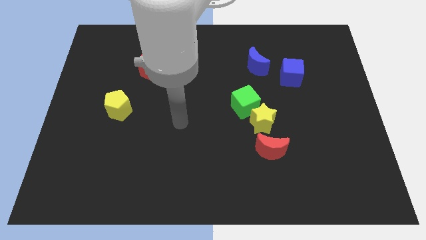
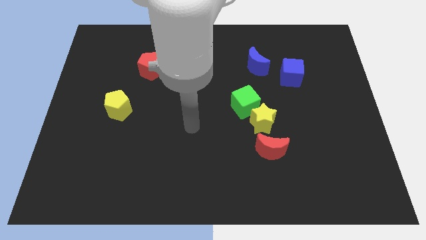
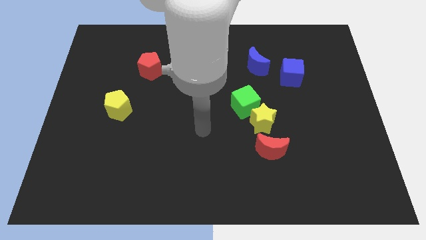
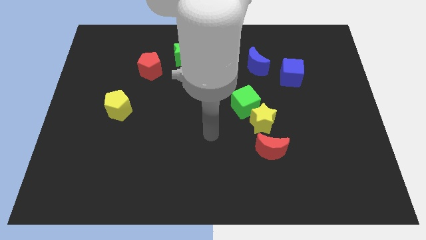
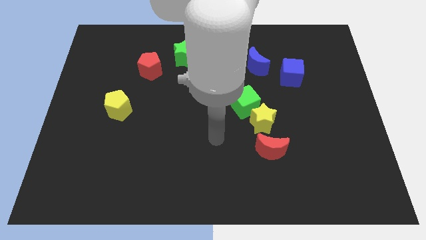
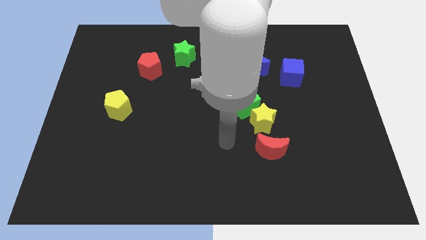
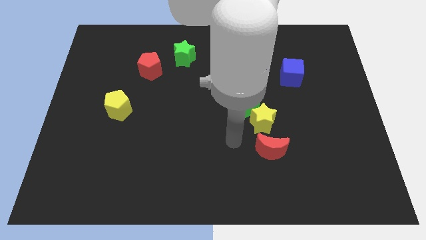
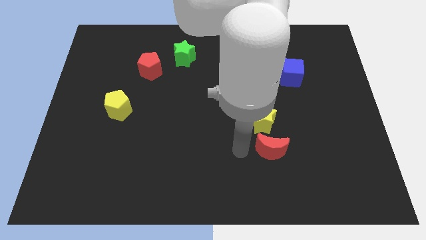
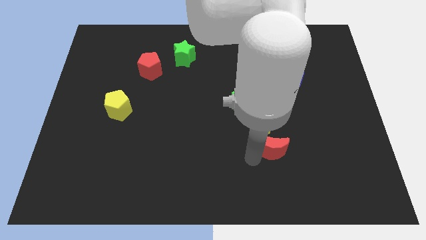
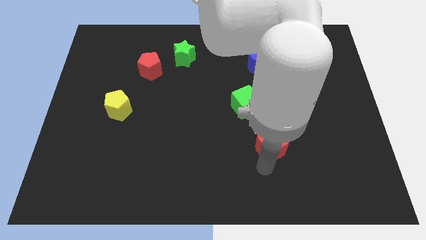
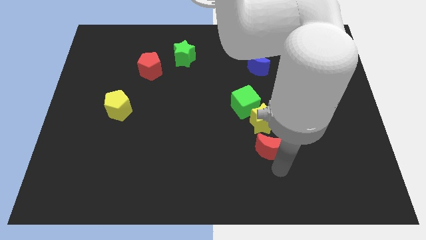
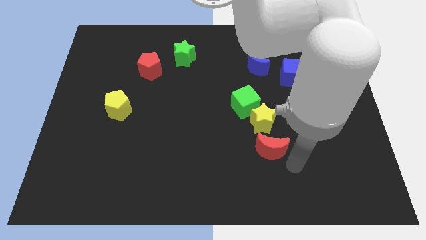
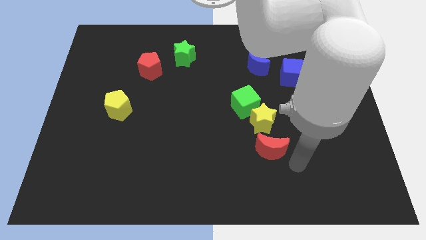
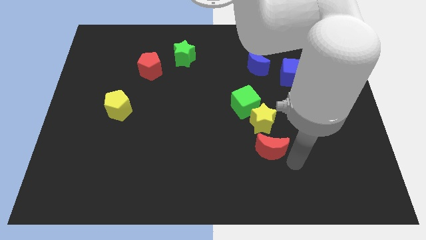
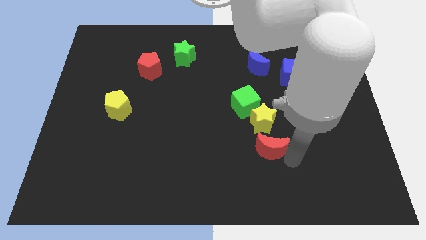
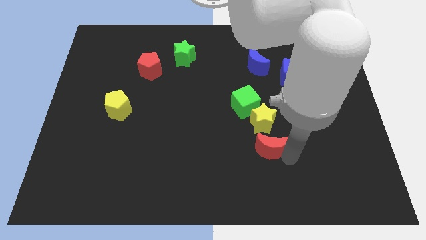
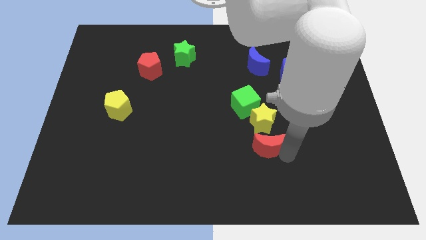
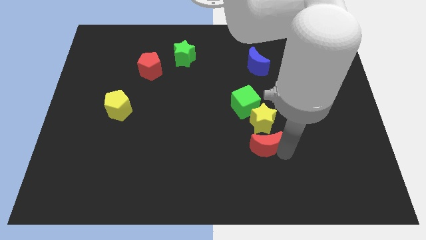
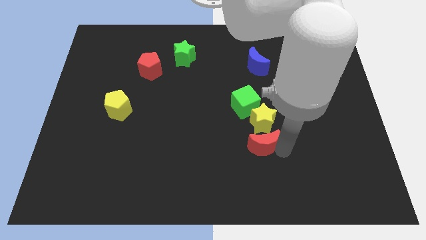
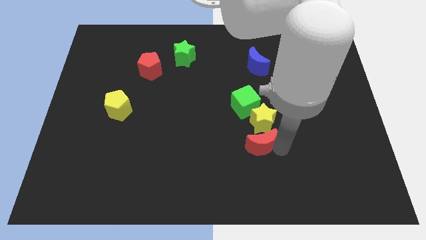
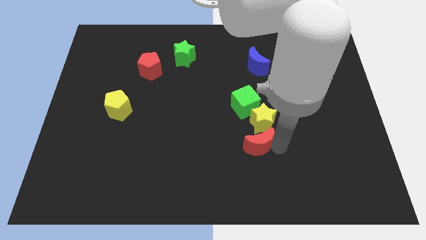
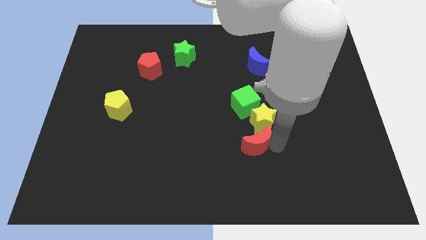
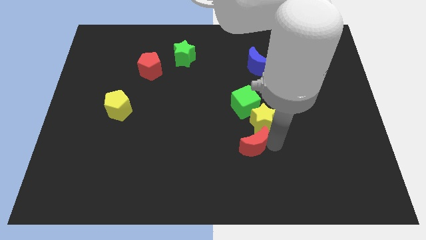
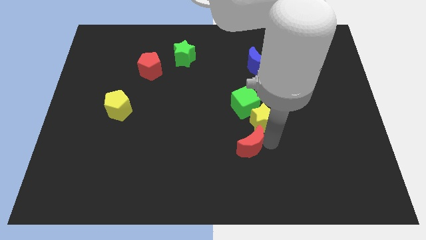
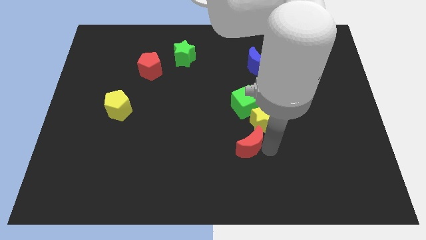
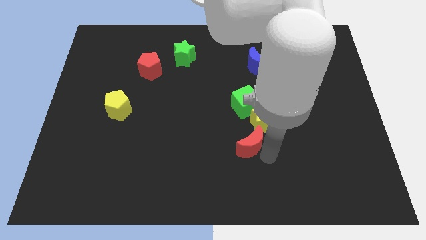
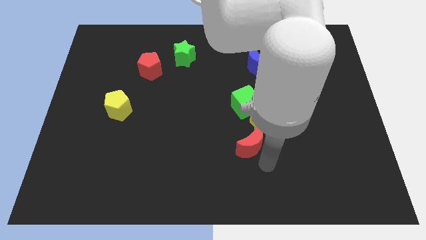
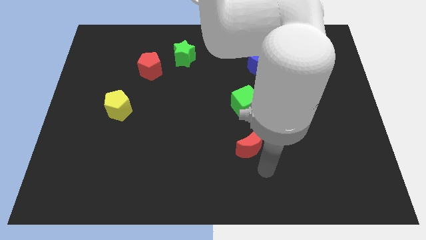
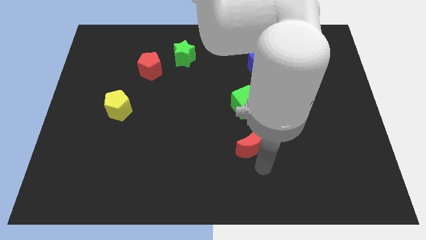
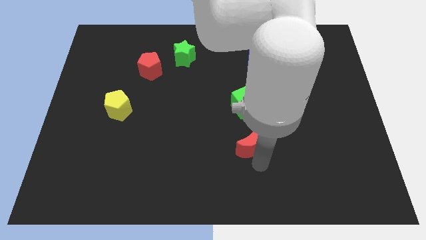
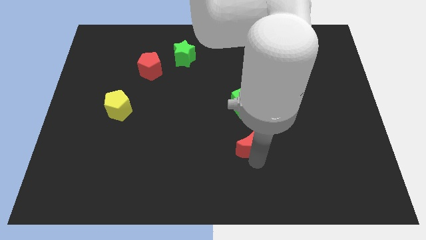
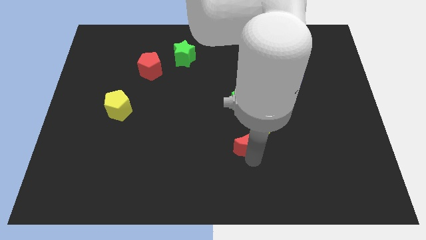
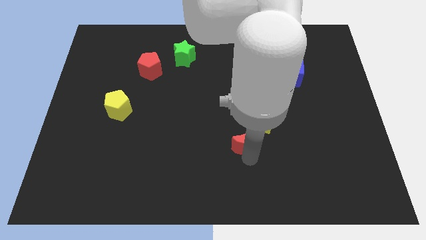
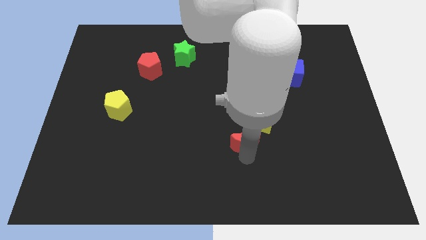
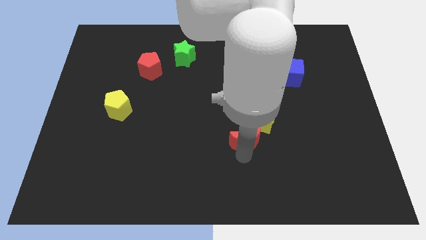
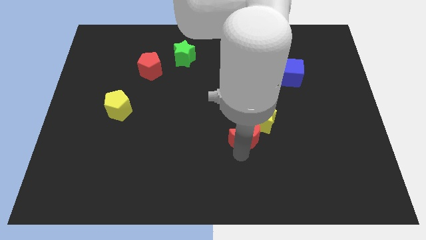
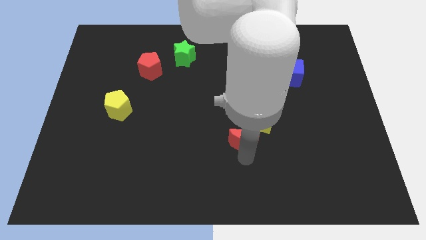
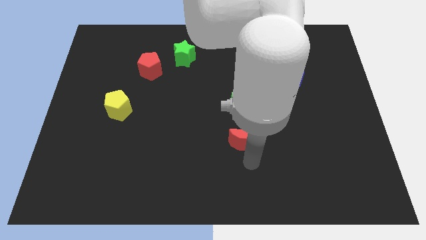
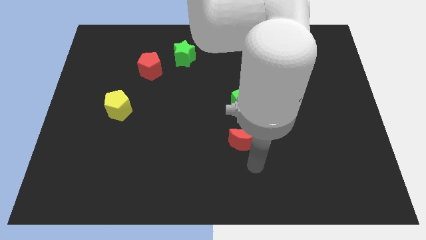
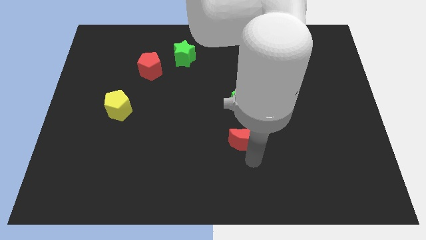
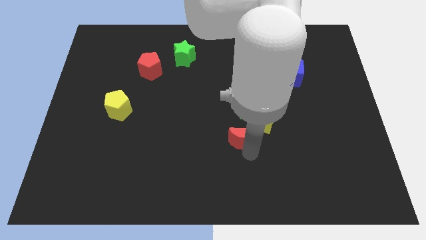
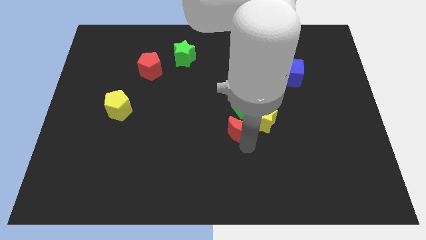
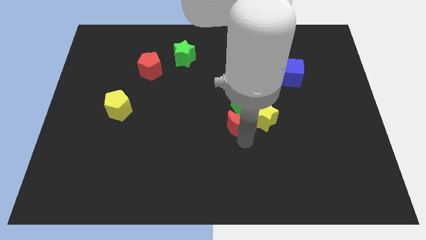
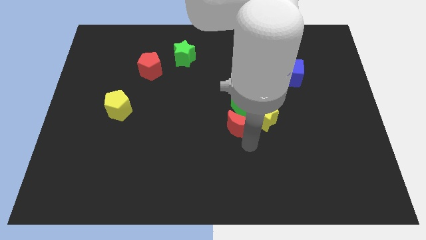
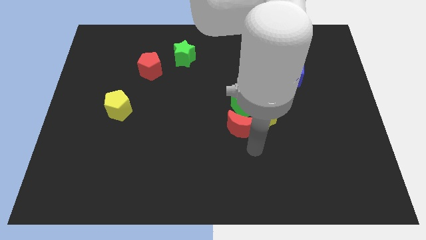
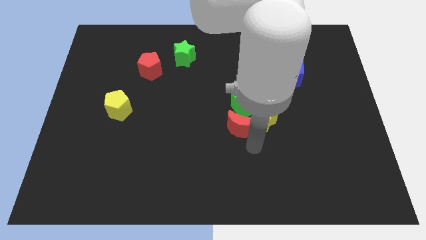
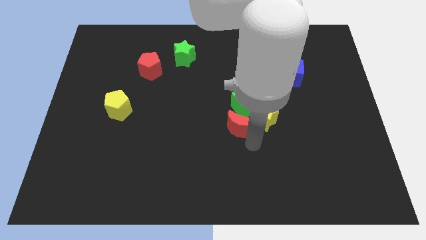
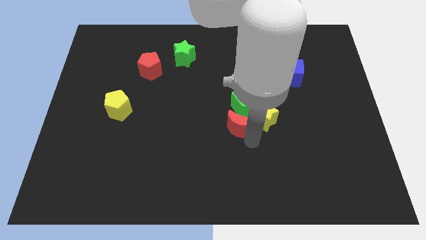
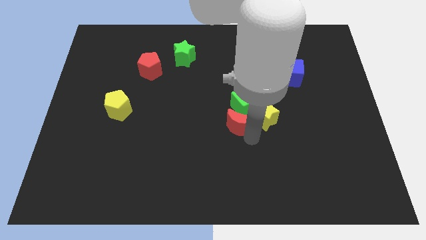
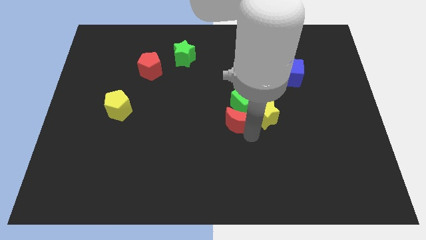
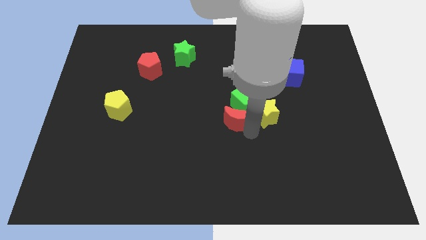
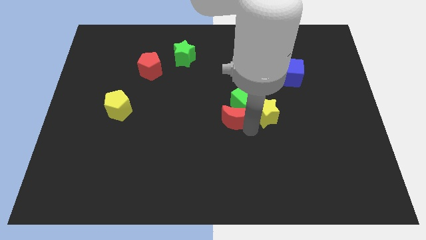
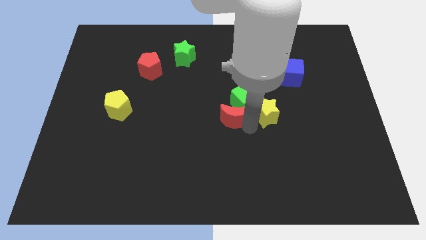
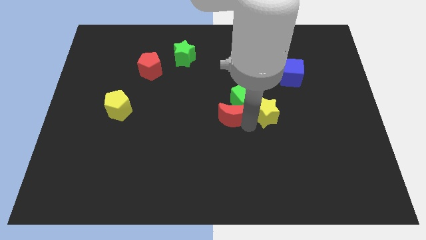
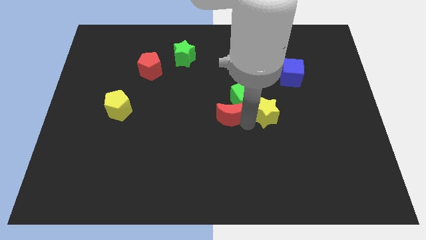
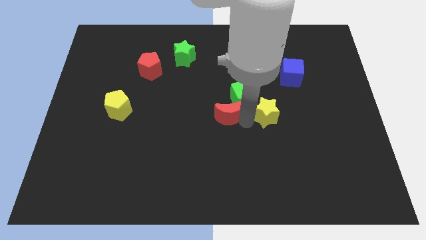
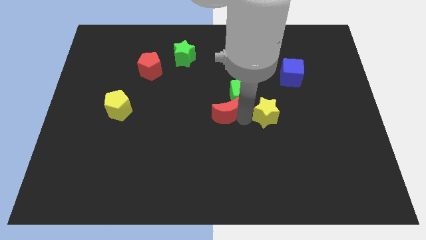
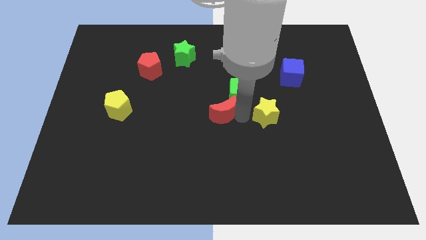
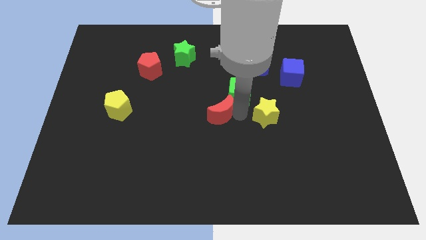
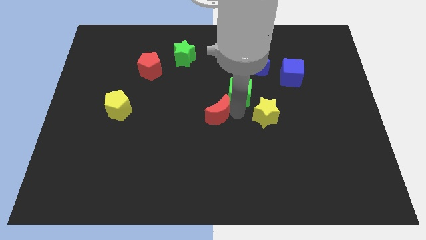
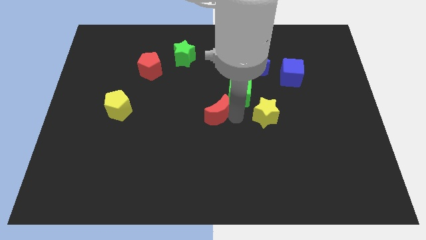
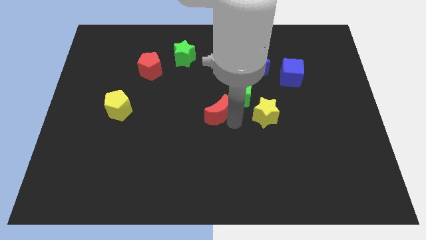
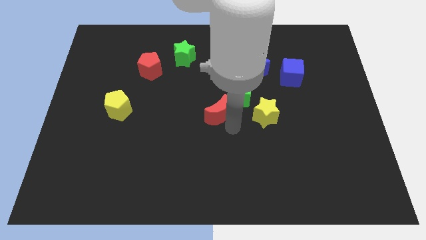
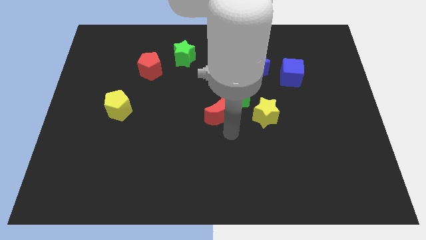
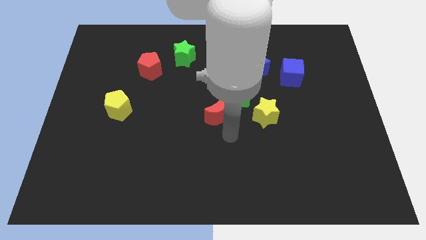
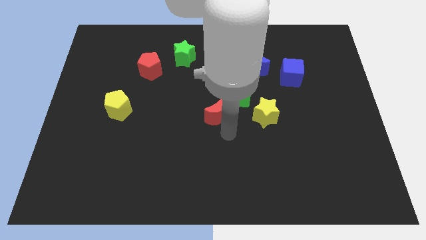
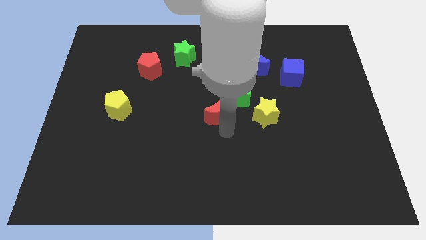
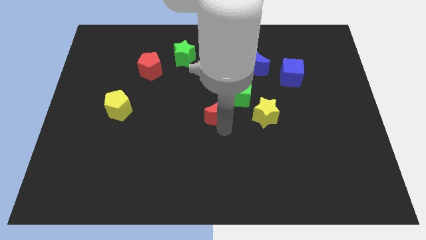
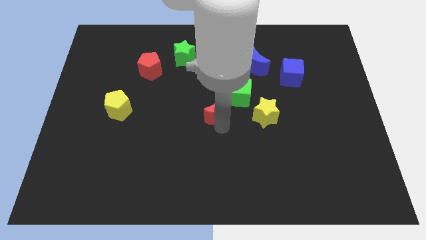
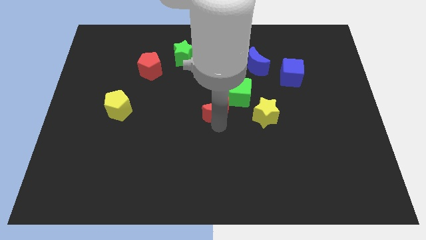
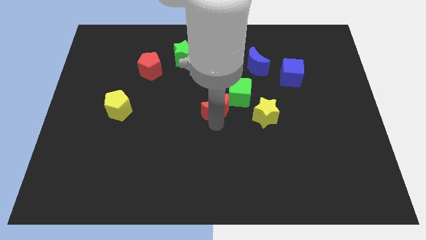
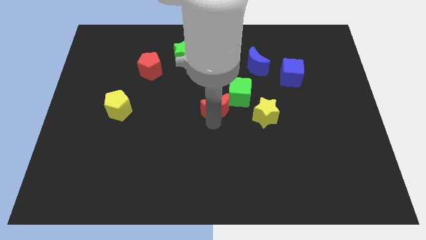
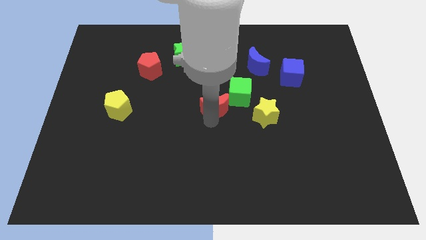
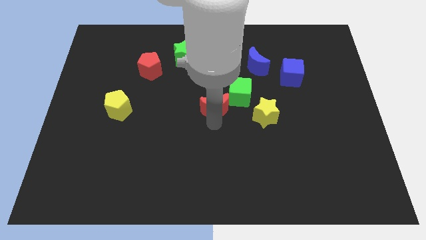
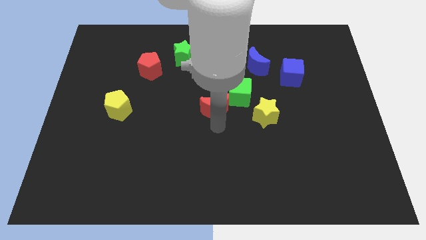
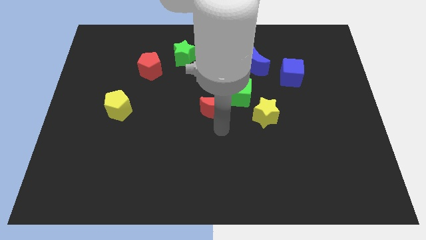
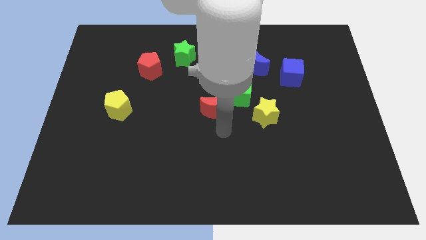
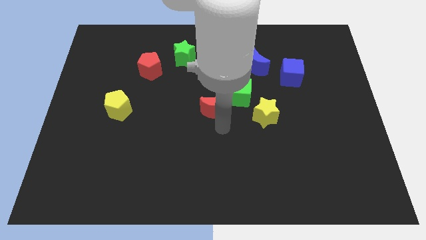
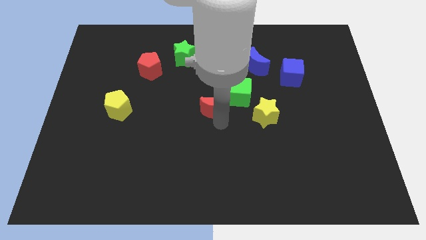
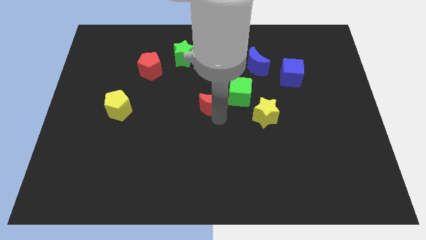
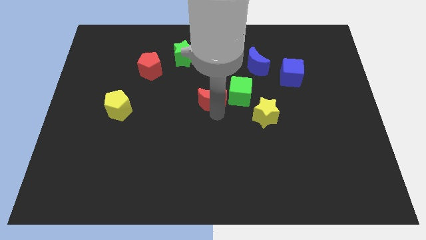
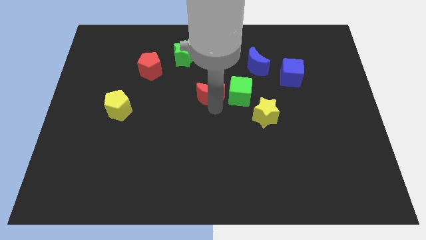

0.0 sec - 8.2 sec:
push the red moon upwards and then to the left
